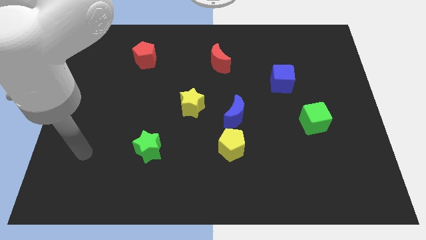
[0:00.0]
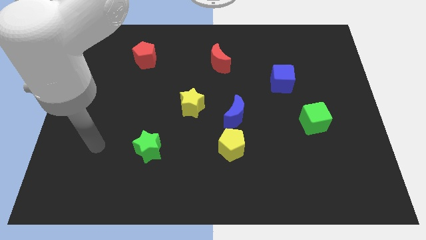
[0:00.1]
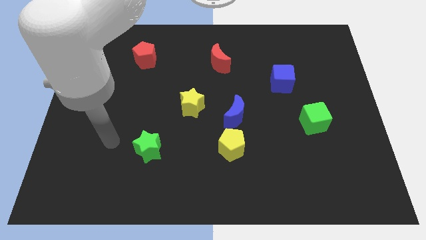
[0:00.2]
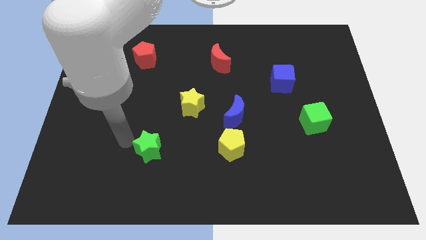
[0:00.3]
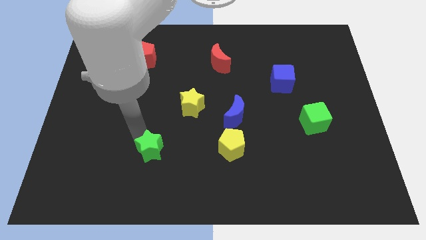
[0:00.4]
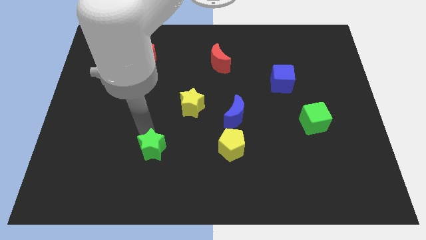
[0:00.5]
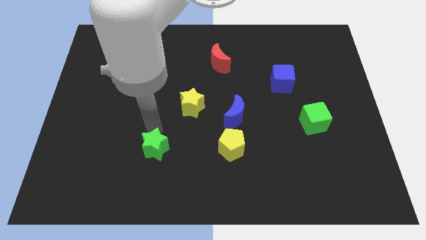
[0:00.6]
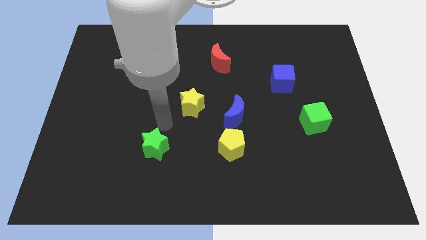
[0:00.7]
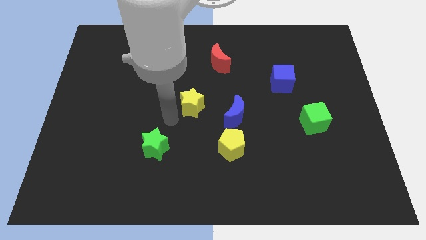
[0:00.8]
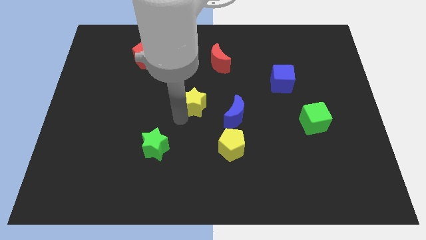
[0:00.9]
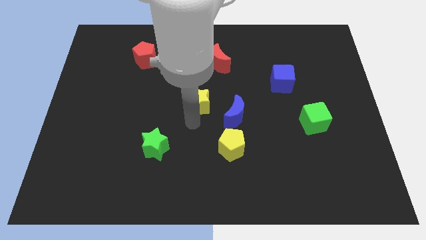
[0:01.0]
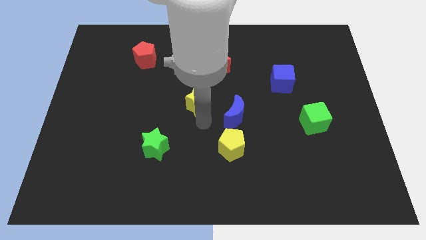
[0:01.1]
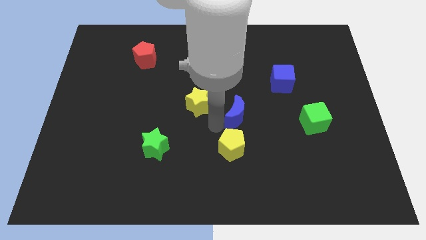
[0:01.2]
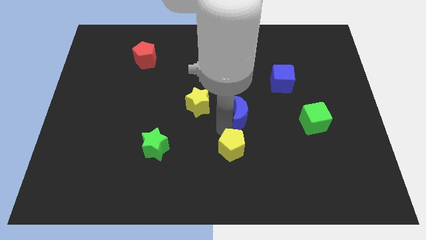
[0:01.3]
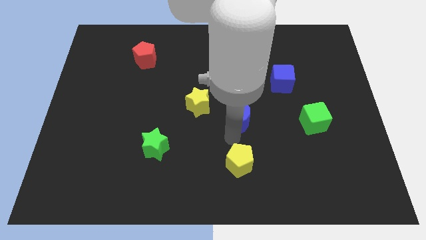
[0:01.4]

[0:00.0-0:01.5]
separate the blue moon from the yellow pentagon

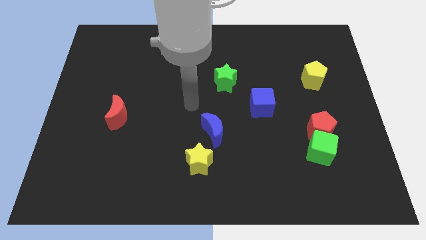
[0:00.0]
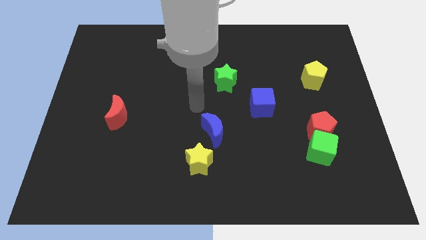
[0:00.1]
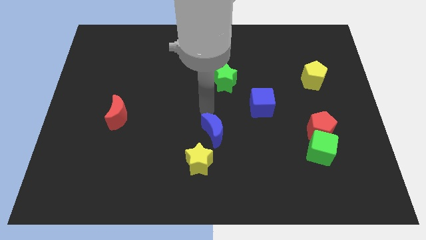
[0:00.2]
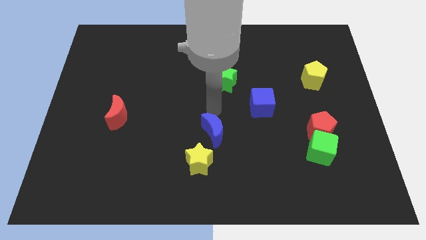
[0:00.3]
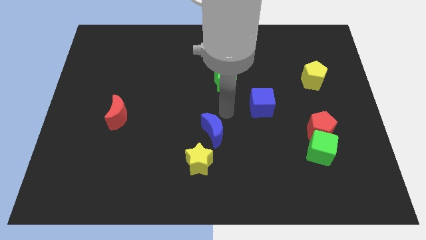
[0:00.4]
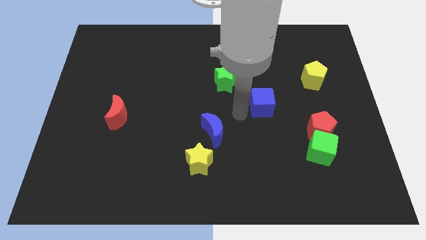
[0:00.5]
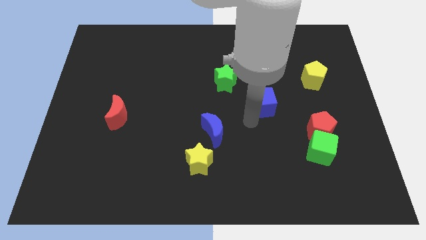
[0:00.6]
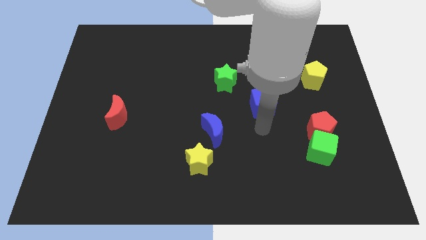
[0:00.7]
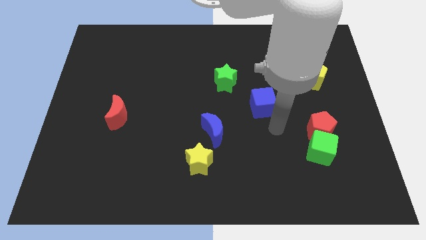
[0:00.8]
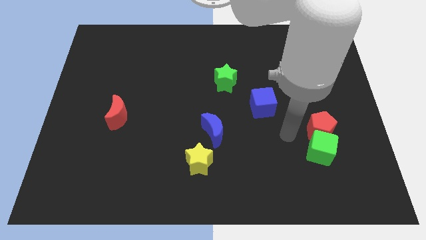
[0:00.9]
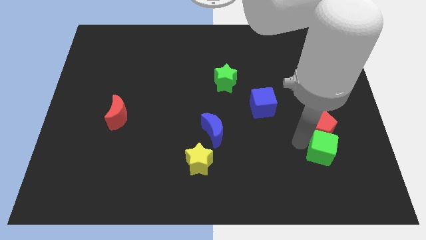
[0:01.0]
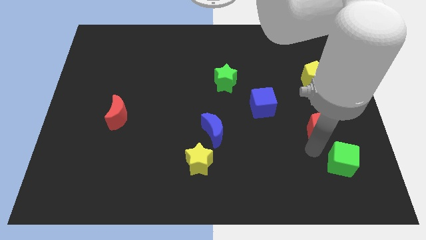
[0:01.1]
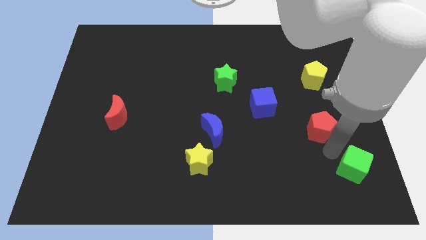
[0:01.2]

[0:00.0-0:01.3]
move the red pentagon away from the green cube

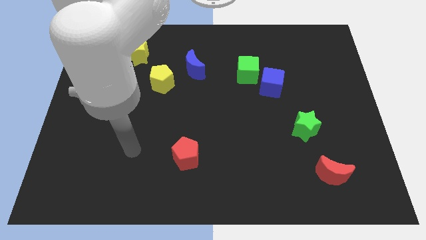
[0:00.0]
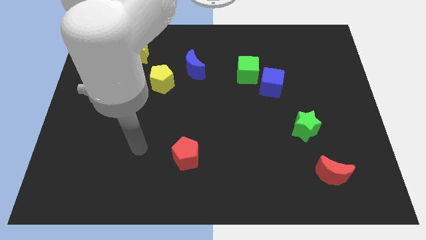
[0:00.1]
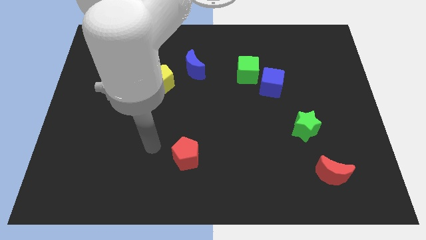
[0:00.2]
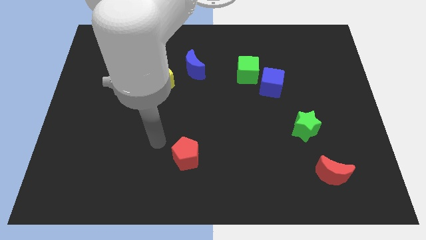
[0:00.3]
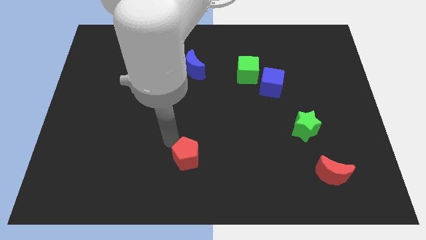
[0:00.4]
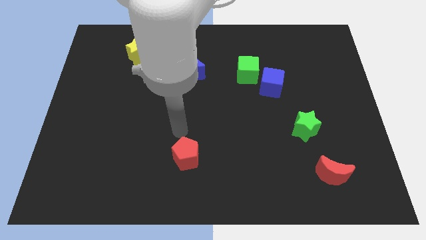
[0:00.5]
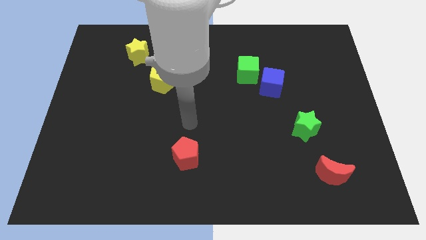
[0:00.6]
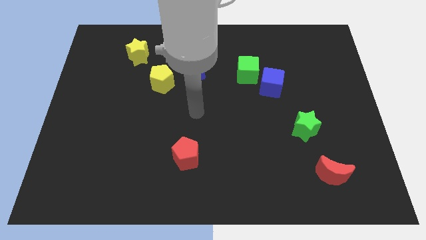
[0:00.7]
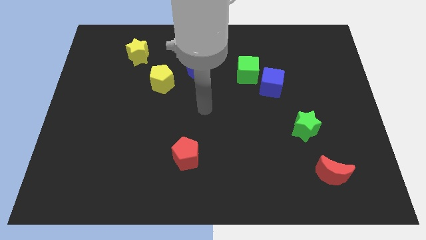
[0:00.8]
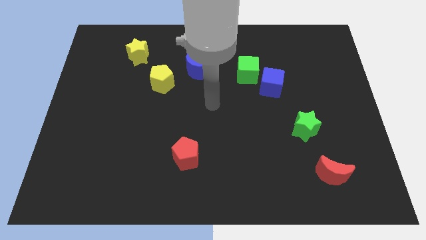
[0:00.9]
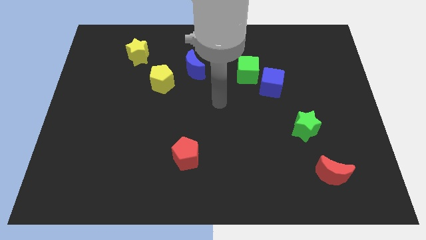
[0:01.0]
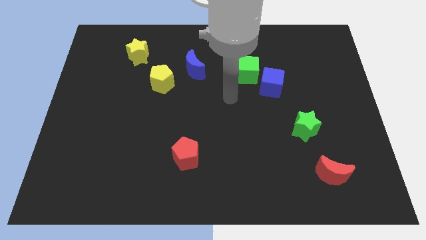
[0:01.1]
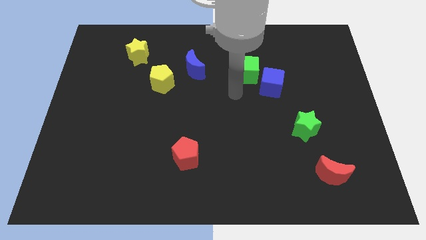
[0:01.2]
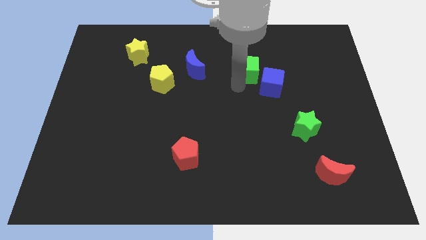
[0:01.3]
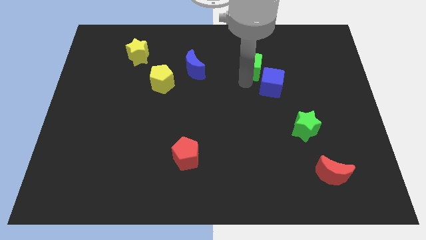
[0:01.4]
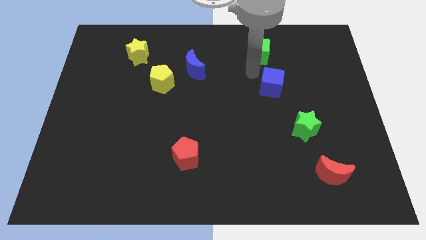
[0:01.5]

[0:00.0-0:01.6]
pull the blue cube apart from the green cube

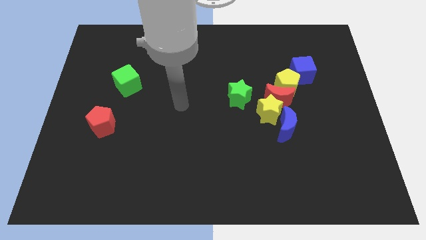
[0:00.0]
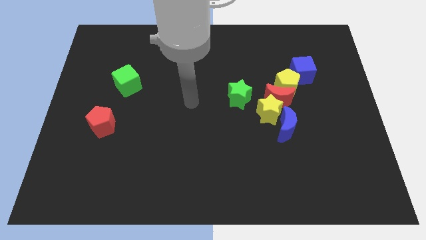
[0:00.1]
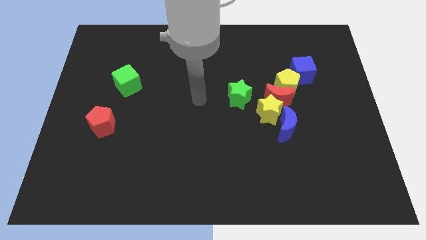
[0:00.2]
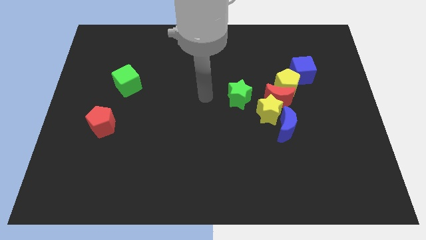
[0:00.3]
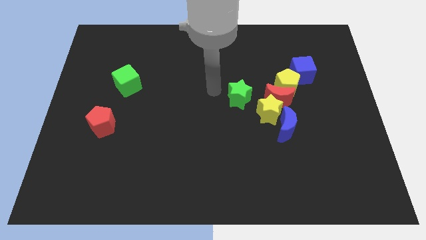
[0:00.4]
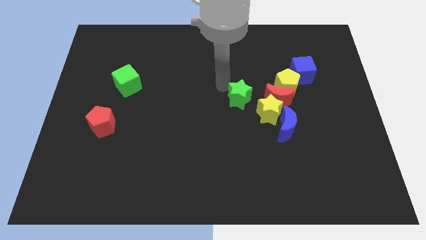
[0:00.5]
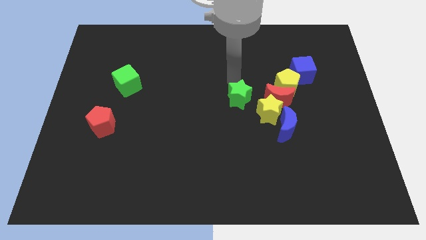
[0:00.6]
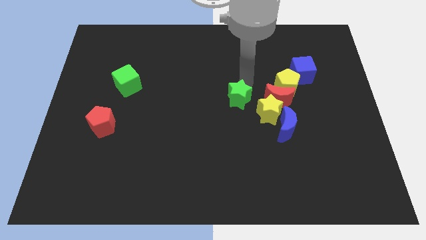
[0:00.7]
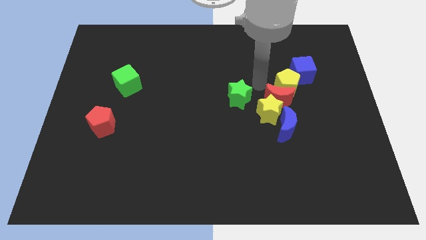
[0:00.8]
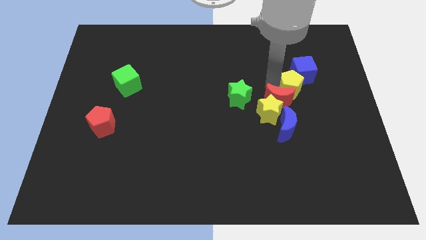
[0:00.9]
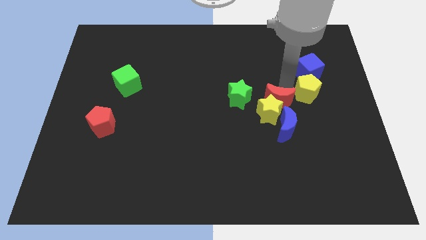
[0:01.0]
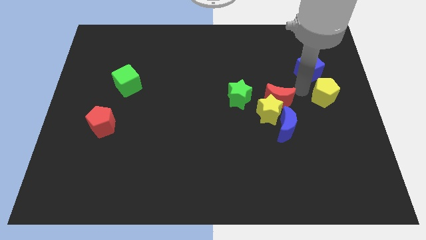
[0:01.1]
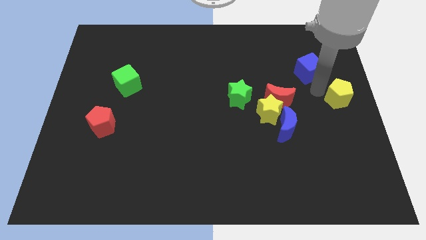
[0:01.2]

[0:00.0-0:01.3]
pull the blue cube apart from the yellow pentagon

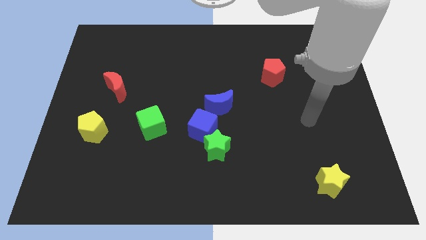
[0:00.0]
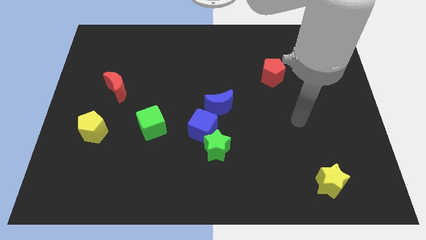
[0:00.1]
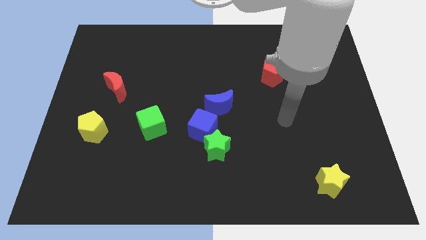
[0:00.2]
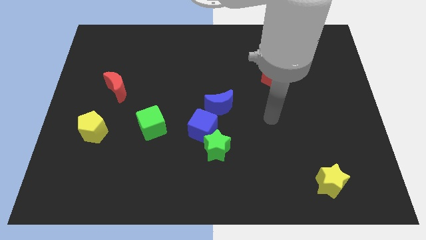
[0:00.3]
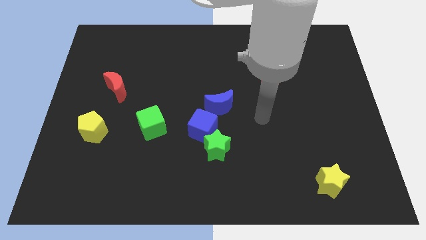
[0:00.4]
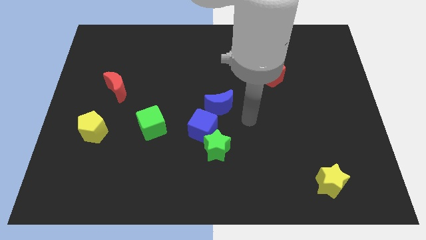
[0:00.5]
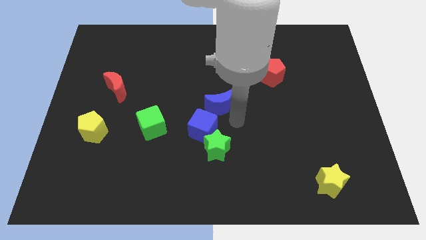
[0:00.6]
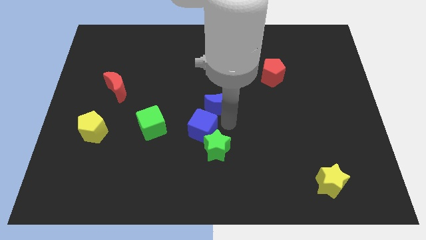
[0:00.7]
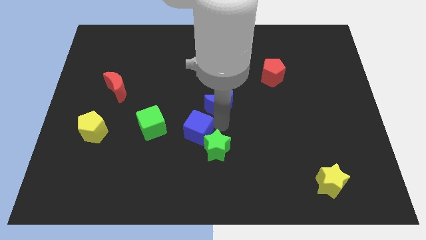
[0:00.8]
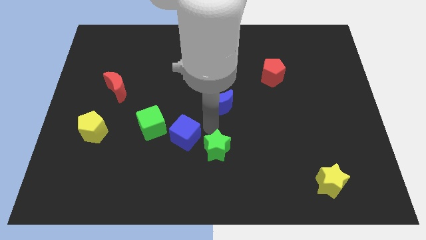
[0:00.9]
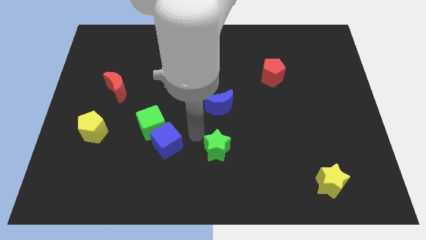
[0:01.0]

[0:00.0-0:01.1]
move the green star away from the blue cube

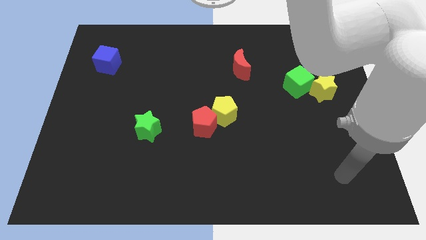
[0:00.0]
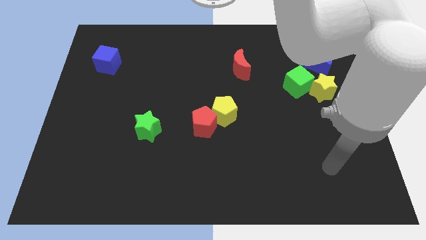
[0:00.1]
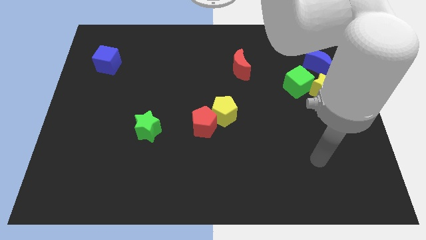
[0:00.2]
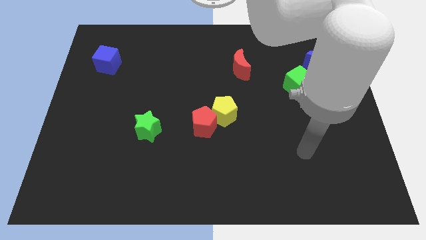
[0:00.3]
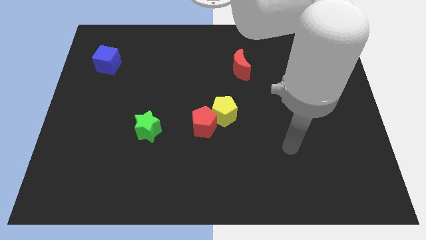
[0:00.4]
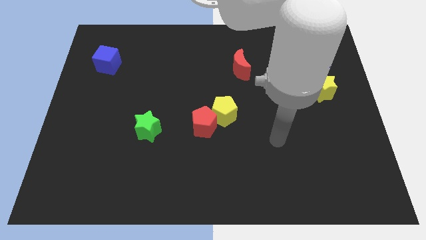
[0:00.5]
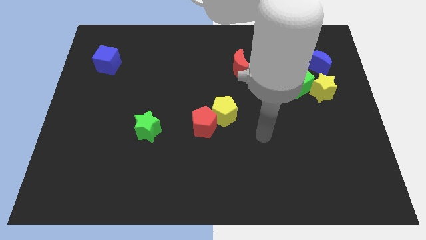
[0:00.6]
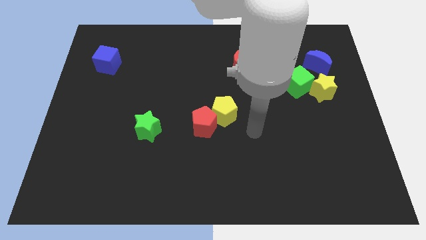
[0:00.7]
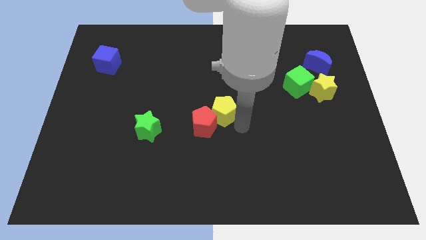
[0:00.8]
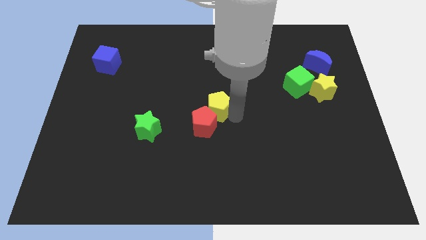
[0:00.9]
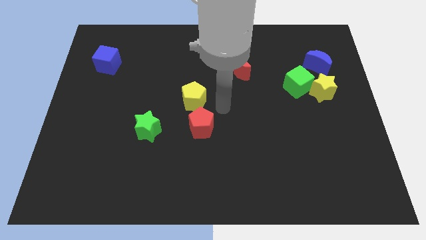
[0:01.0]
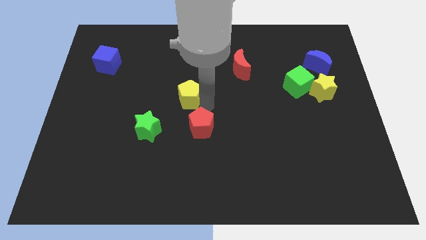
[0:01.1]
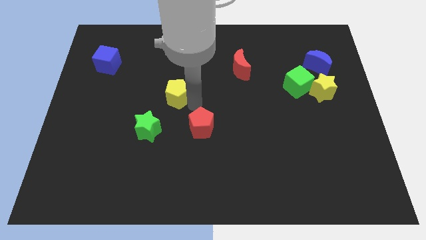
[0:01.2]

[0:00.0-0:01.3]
move the red pentagon away from the yellow pentagon

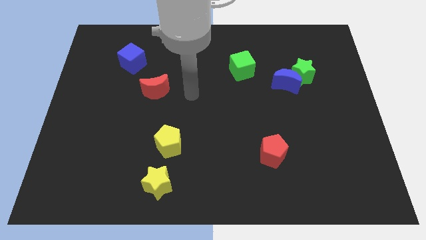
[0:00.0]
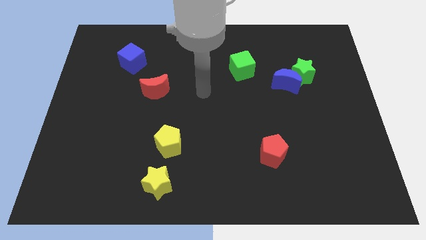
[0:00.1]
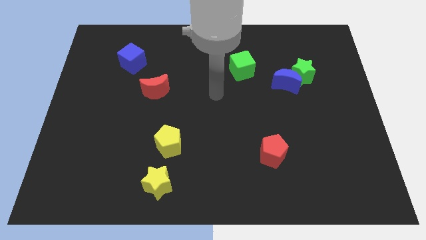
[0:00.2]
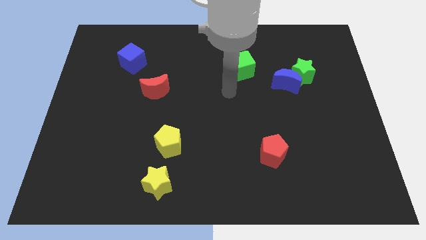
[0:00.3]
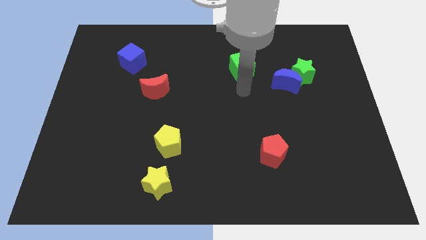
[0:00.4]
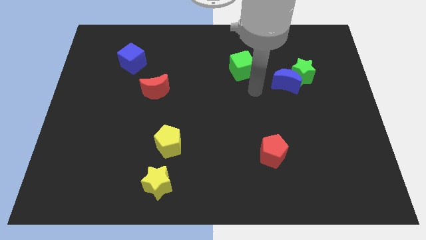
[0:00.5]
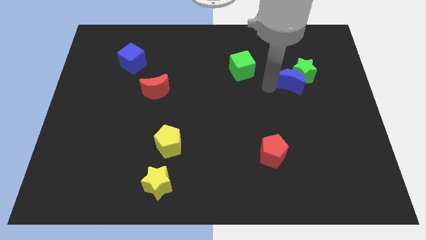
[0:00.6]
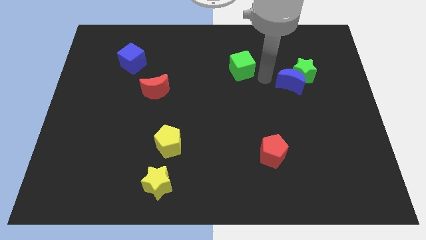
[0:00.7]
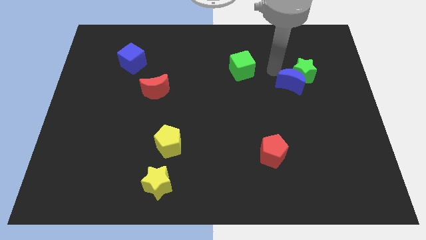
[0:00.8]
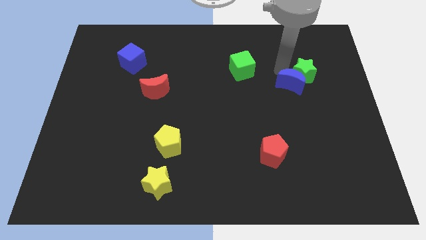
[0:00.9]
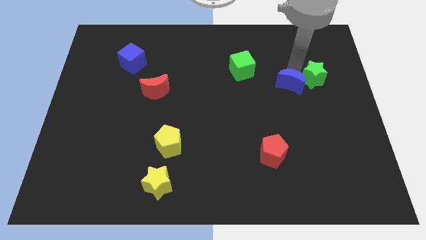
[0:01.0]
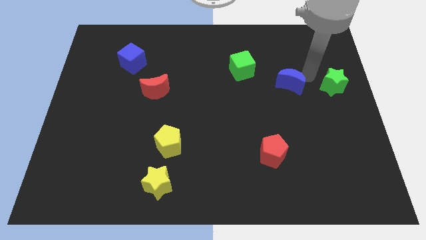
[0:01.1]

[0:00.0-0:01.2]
separate the blue moon from the green star
